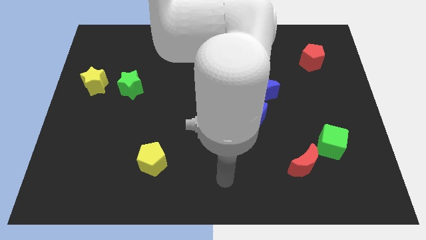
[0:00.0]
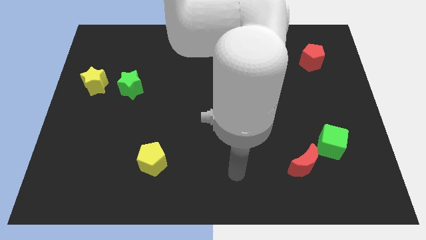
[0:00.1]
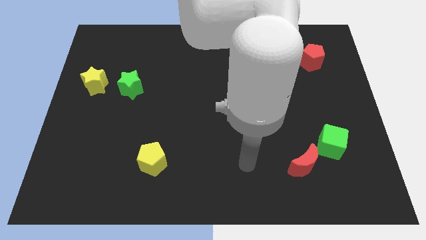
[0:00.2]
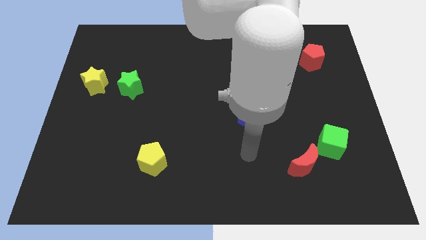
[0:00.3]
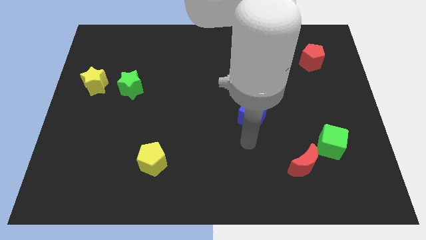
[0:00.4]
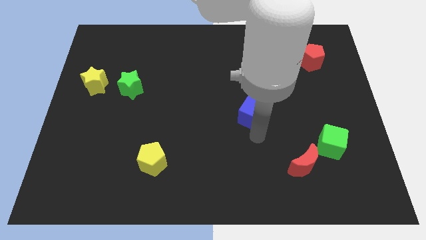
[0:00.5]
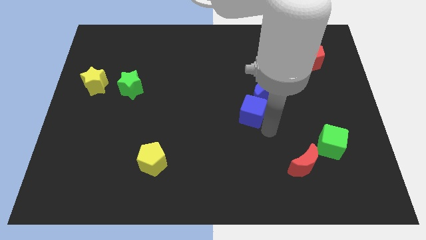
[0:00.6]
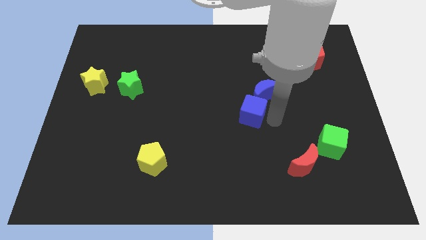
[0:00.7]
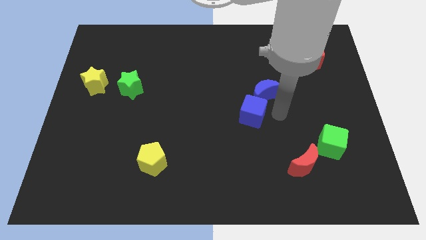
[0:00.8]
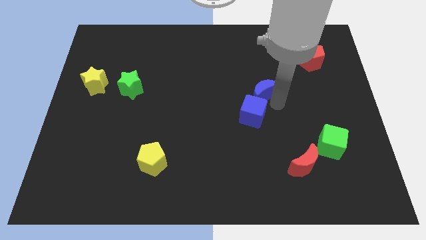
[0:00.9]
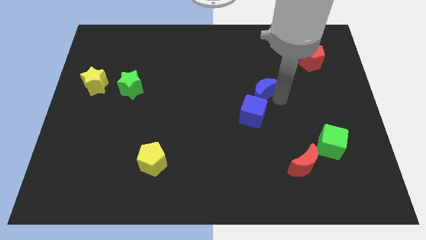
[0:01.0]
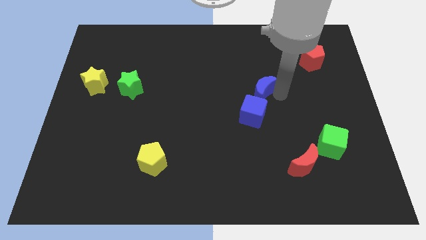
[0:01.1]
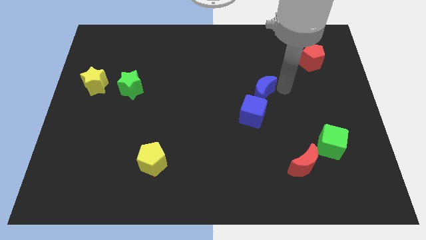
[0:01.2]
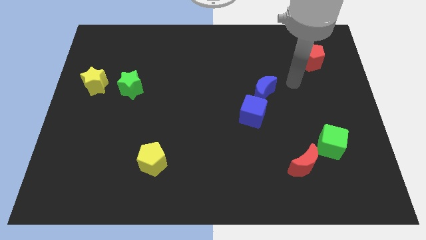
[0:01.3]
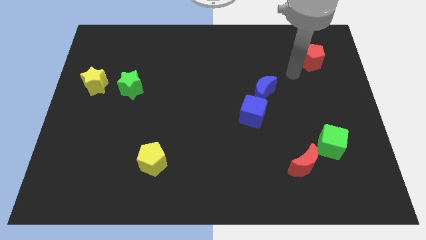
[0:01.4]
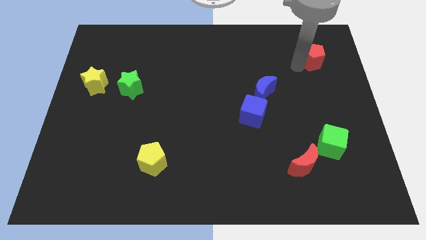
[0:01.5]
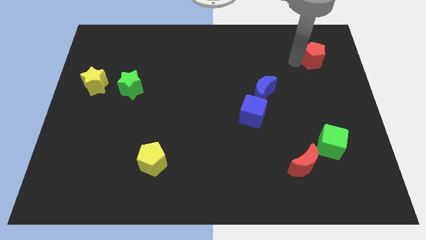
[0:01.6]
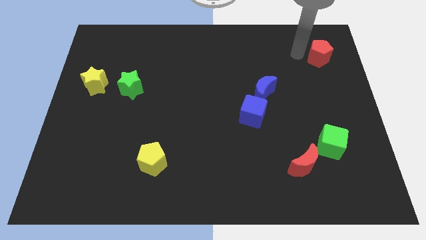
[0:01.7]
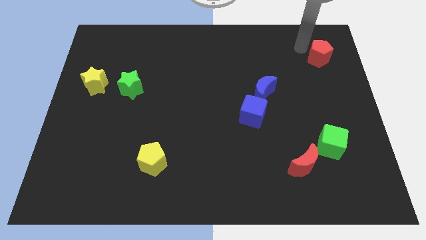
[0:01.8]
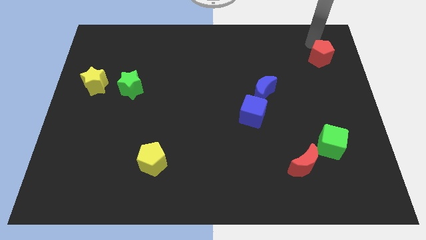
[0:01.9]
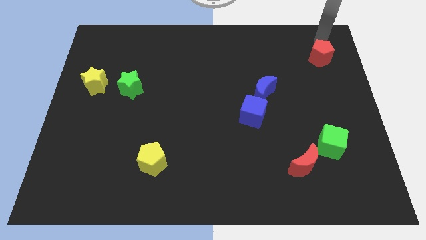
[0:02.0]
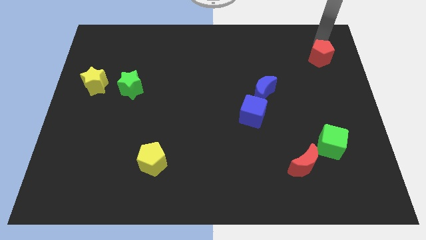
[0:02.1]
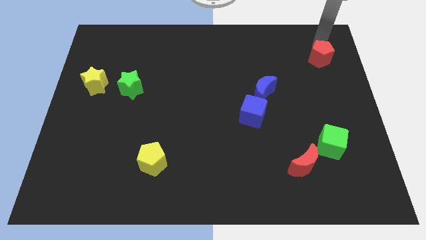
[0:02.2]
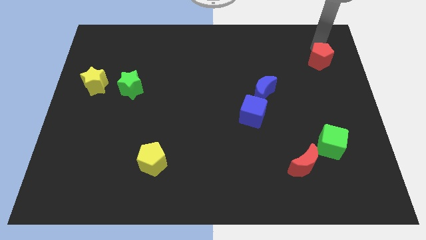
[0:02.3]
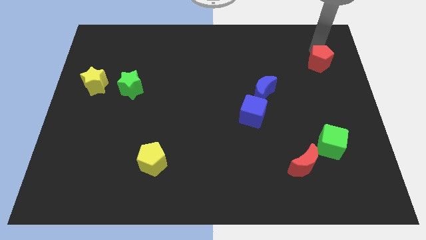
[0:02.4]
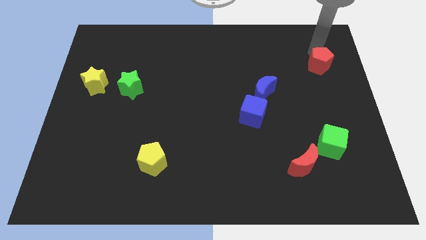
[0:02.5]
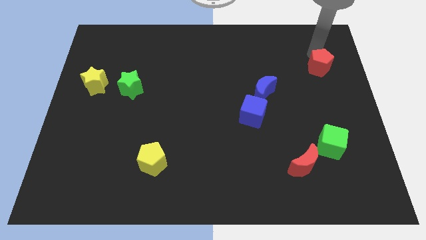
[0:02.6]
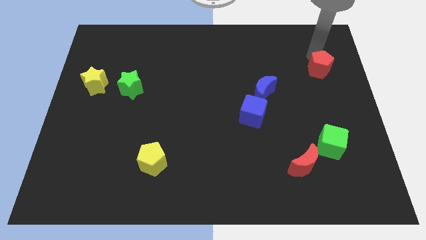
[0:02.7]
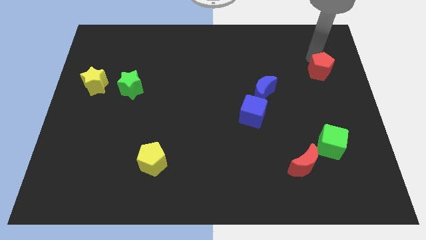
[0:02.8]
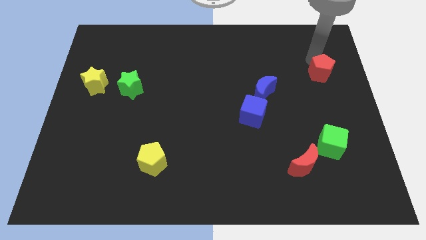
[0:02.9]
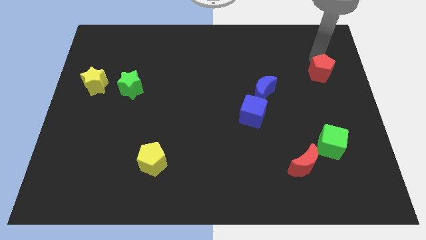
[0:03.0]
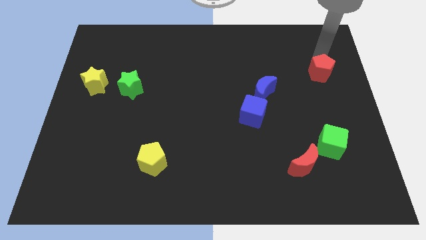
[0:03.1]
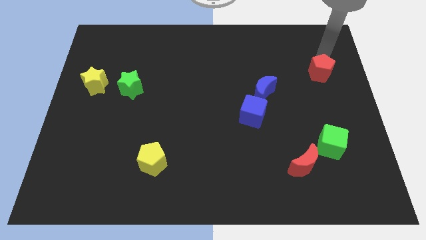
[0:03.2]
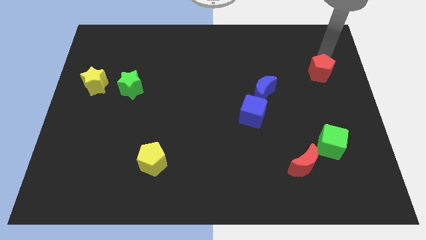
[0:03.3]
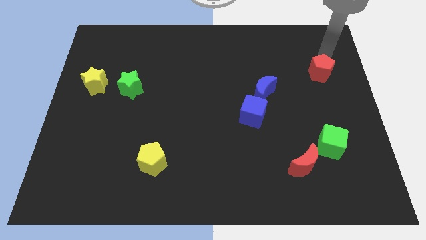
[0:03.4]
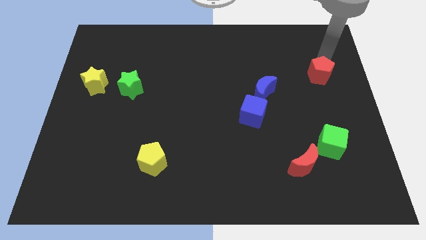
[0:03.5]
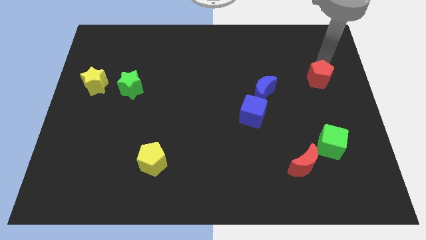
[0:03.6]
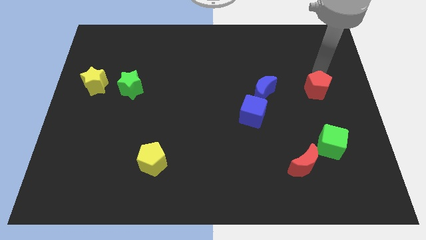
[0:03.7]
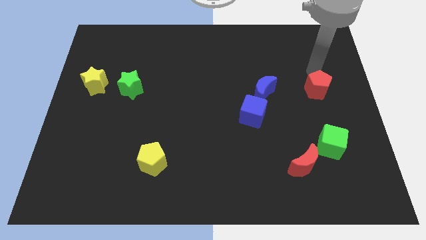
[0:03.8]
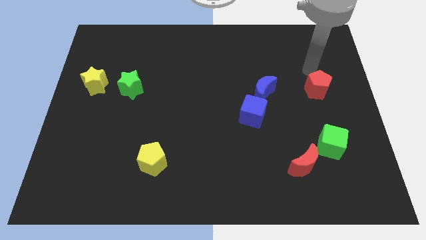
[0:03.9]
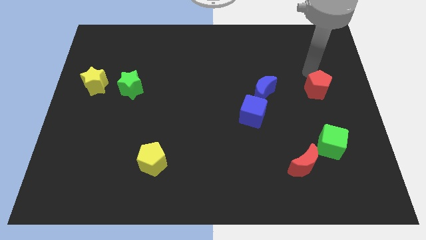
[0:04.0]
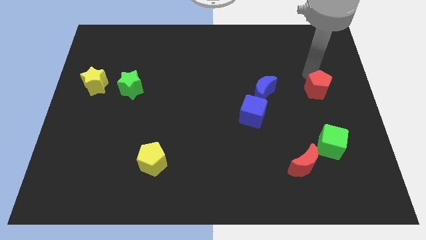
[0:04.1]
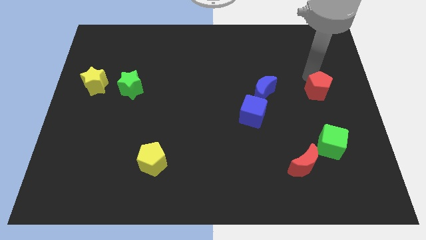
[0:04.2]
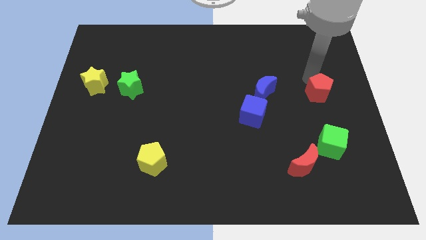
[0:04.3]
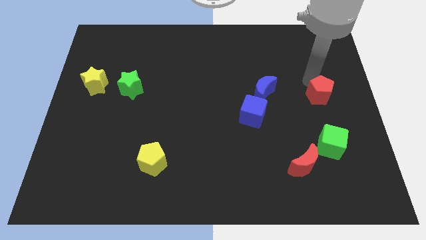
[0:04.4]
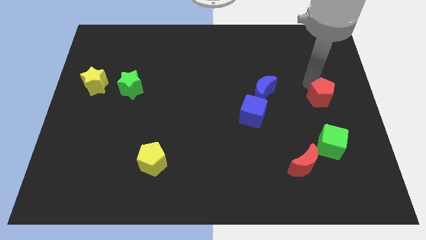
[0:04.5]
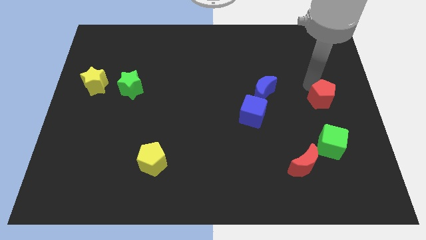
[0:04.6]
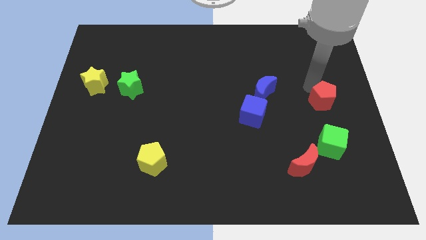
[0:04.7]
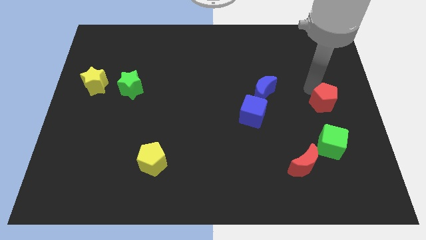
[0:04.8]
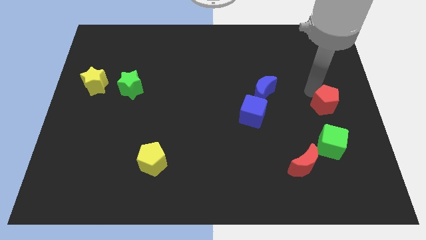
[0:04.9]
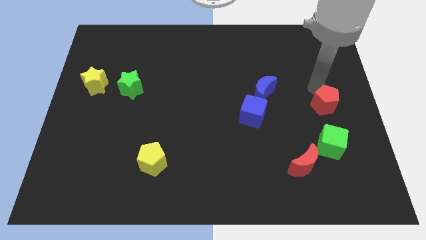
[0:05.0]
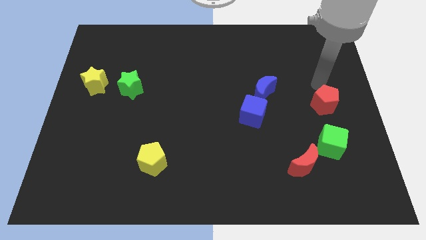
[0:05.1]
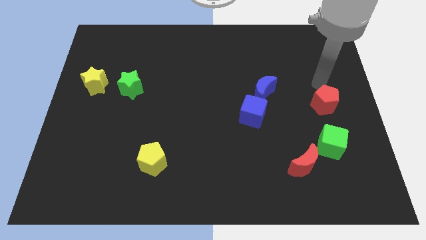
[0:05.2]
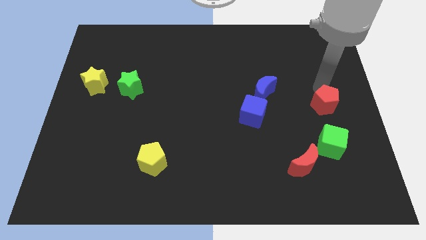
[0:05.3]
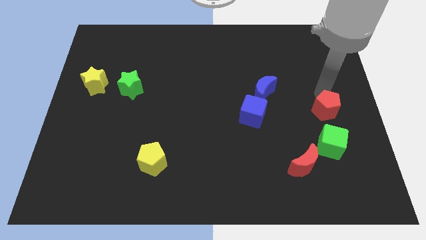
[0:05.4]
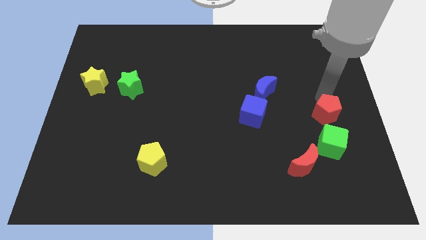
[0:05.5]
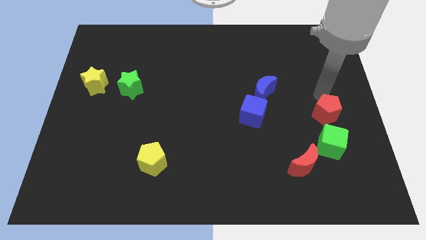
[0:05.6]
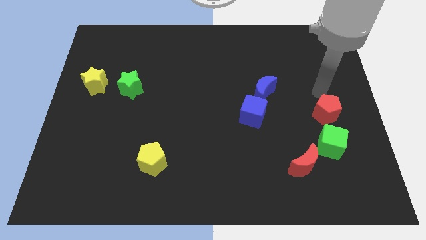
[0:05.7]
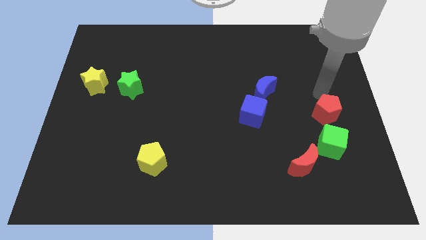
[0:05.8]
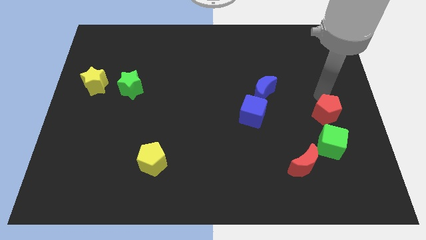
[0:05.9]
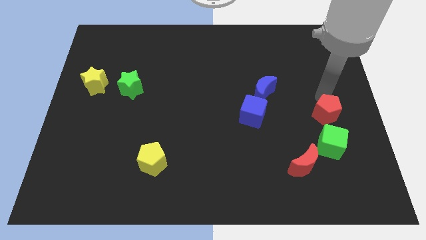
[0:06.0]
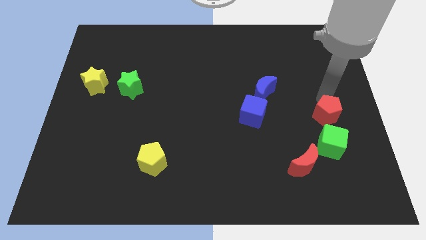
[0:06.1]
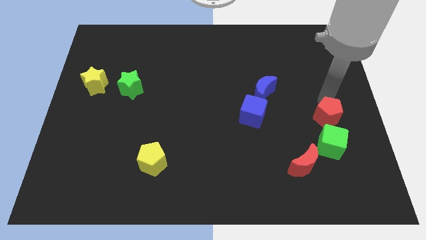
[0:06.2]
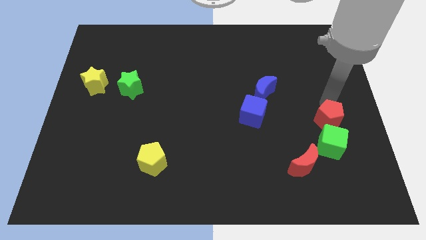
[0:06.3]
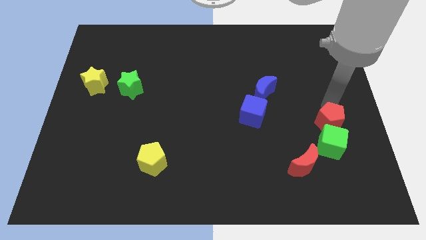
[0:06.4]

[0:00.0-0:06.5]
slide the red pentagon close to the green cube

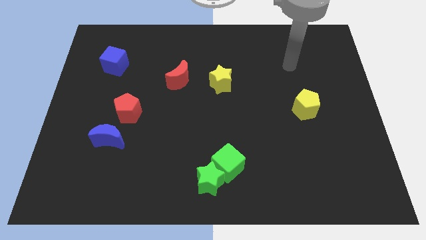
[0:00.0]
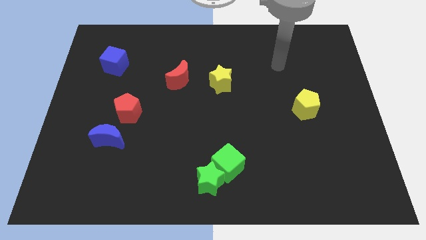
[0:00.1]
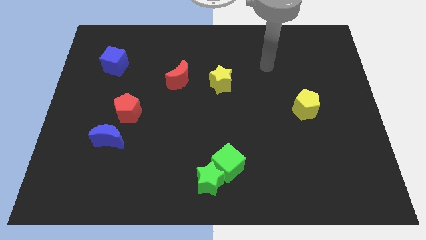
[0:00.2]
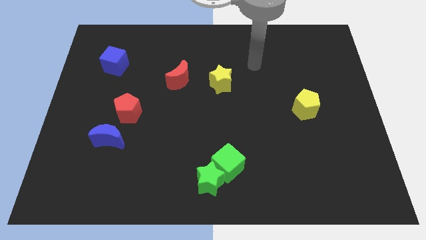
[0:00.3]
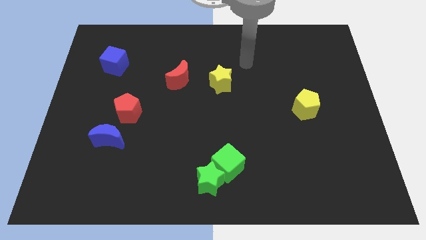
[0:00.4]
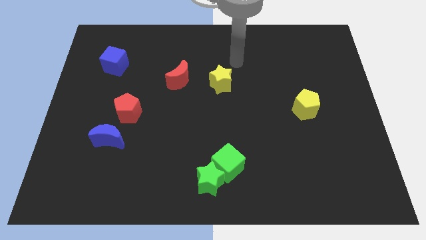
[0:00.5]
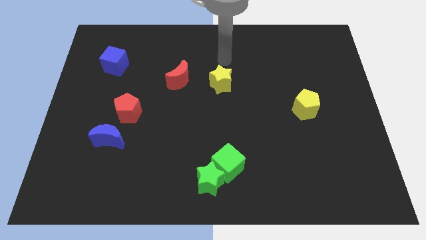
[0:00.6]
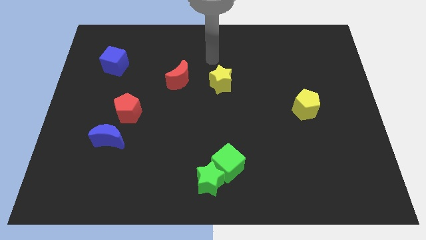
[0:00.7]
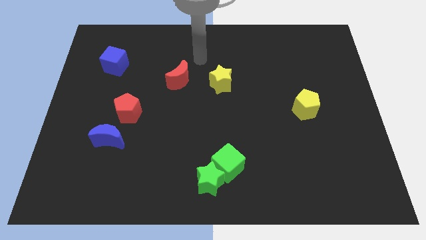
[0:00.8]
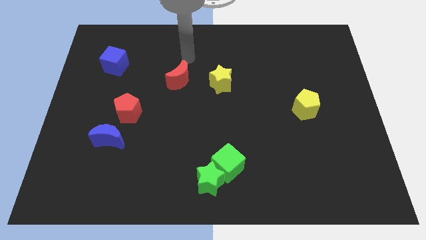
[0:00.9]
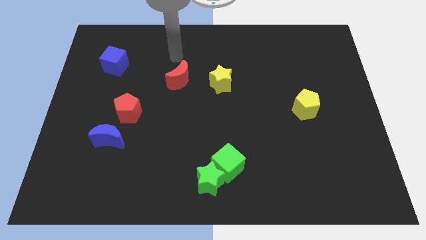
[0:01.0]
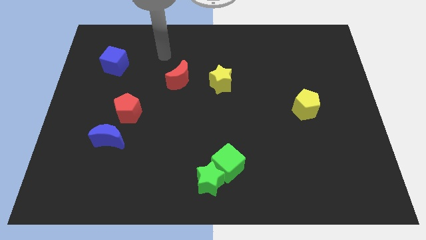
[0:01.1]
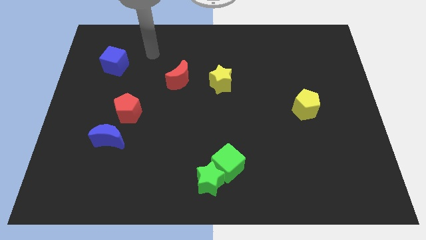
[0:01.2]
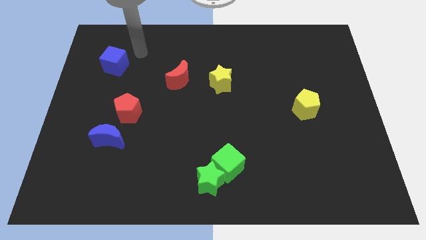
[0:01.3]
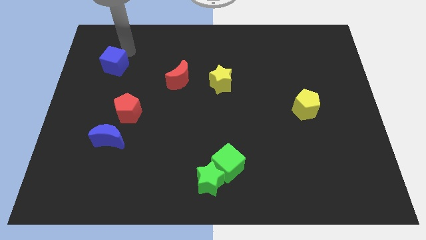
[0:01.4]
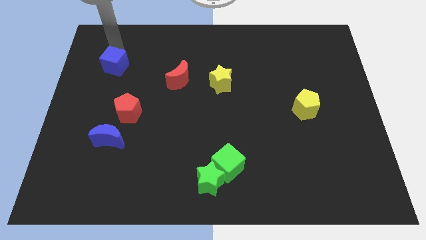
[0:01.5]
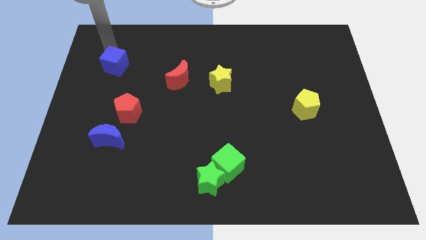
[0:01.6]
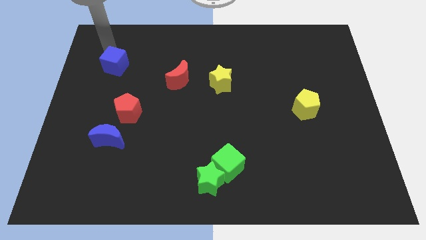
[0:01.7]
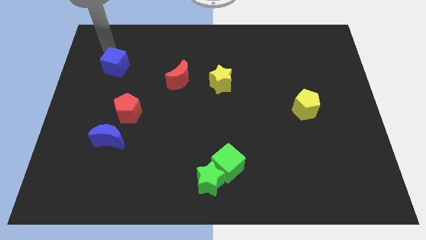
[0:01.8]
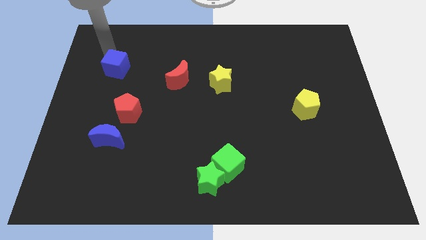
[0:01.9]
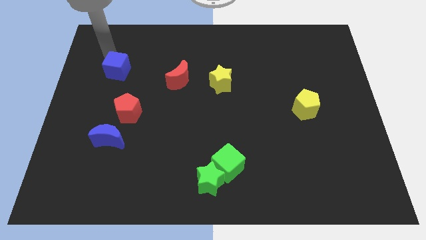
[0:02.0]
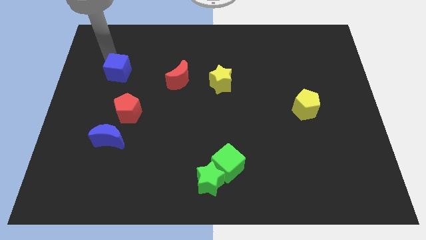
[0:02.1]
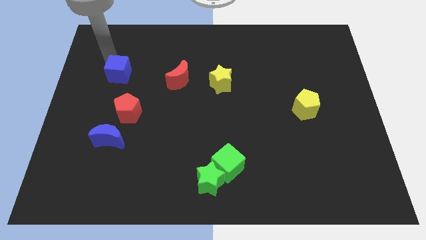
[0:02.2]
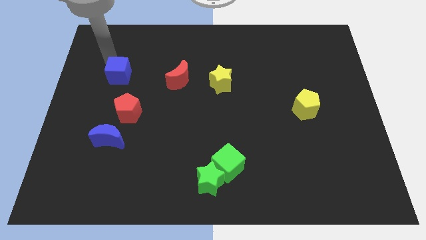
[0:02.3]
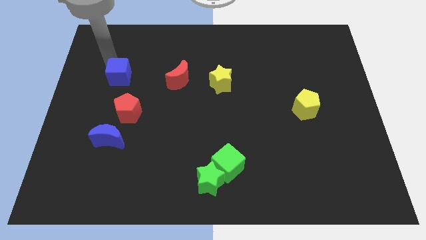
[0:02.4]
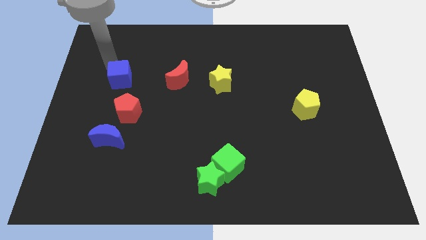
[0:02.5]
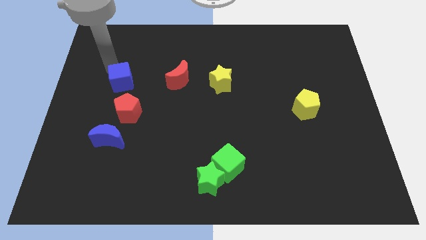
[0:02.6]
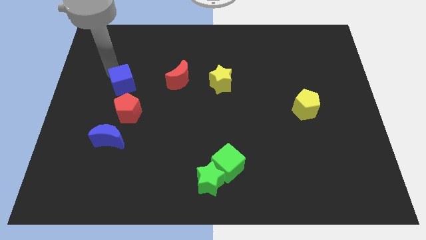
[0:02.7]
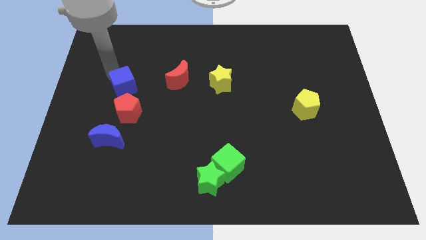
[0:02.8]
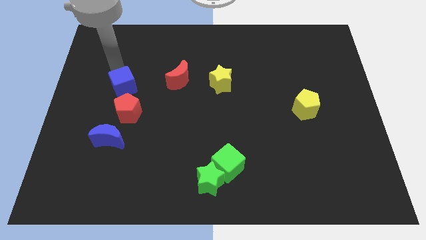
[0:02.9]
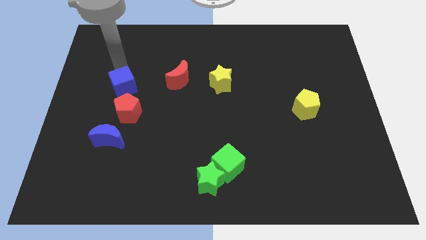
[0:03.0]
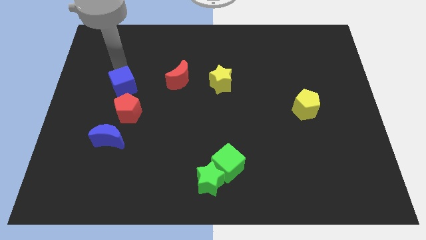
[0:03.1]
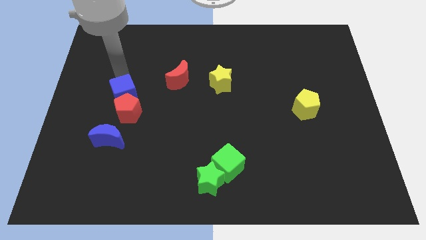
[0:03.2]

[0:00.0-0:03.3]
put the blue cube to the red pentagon
